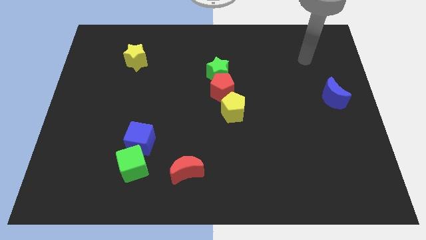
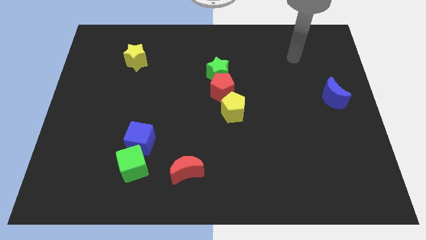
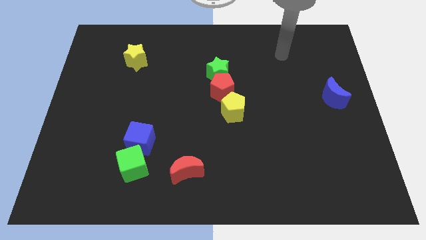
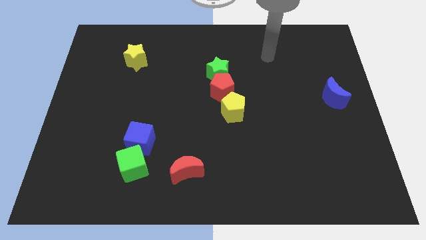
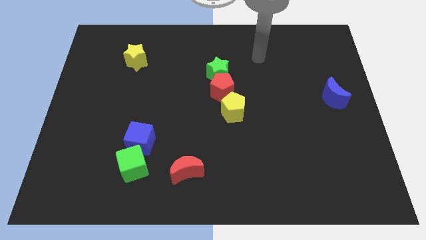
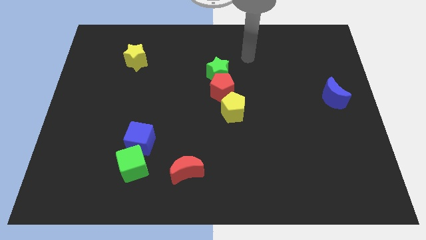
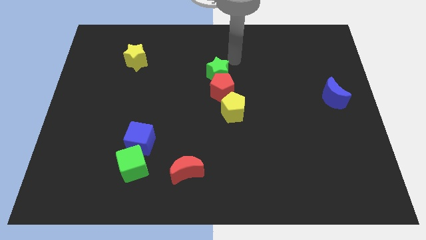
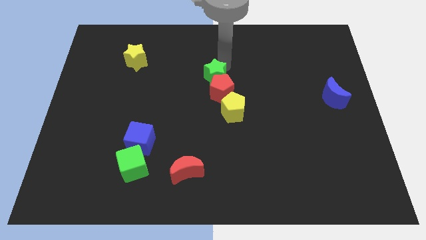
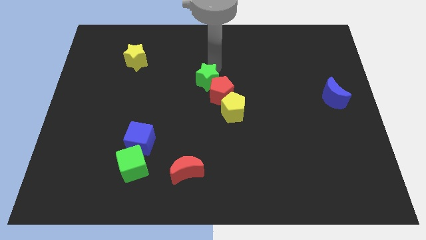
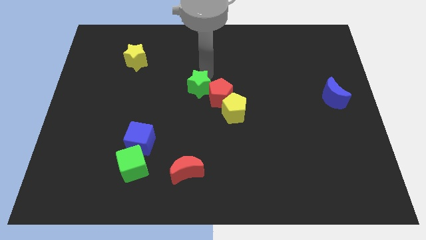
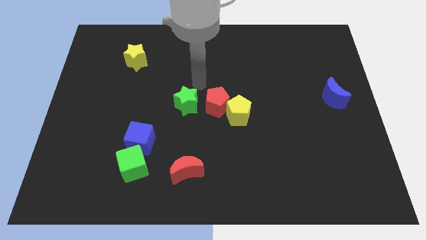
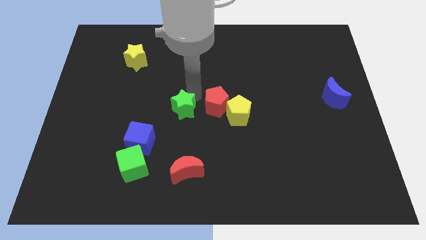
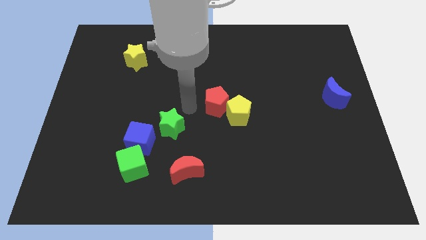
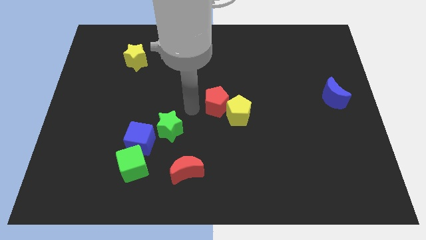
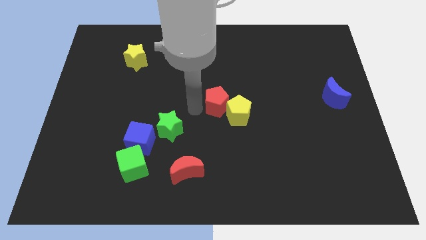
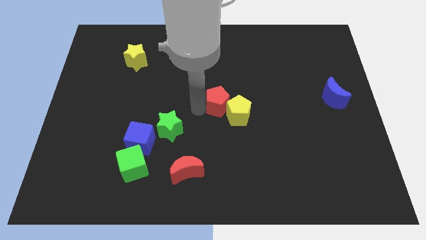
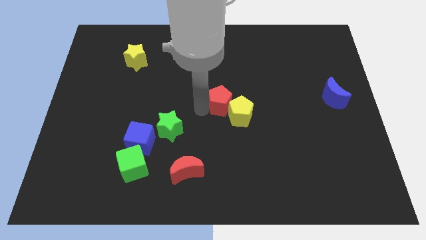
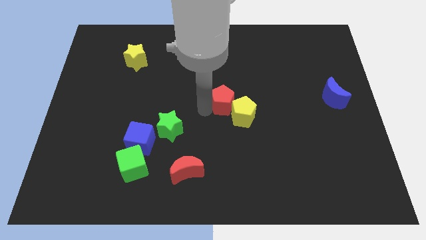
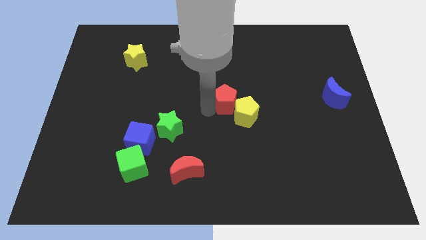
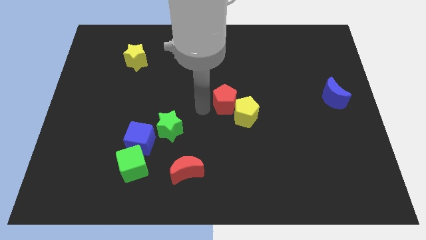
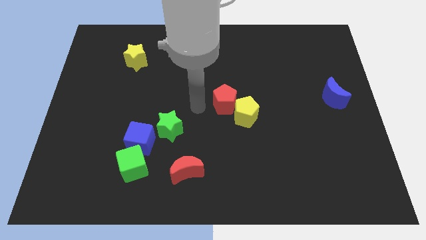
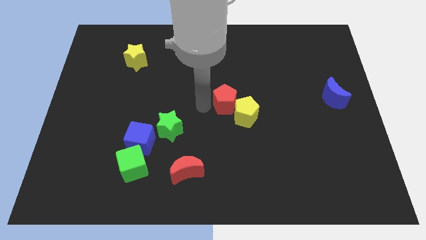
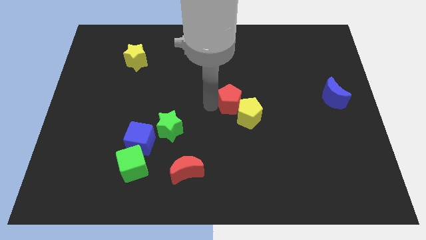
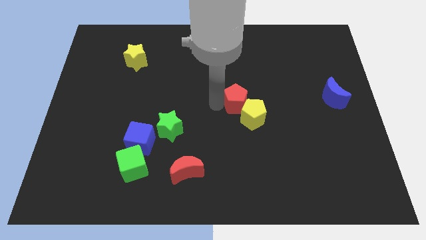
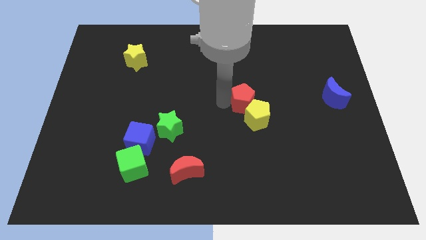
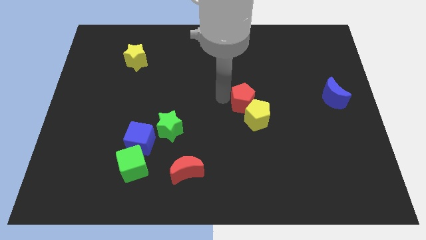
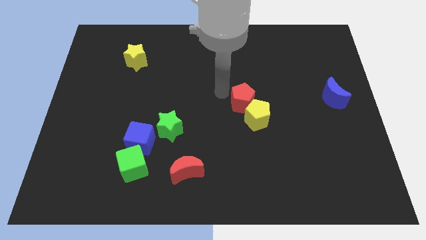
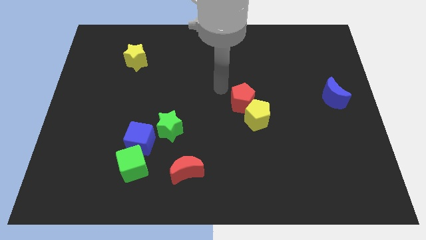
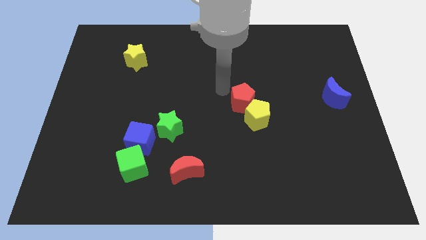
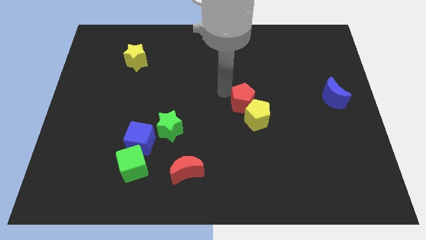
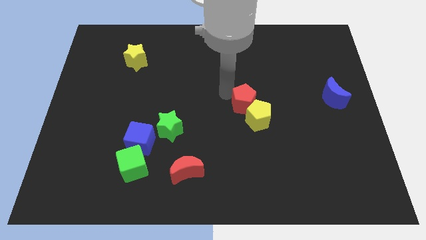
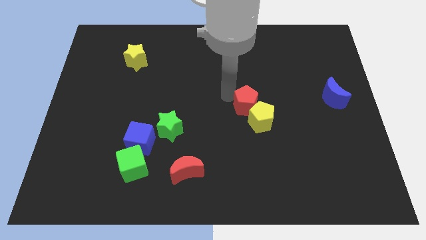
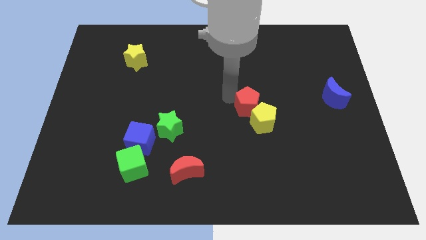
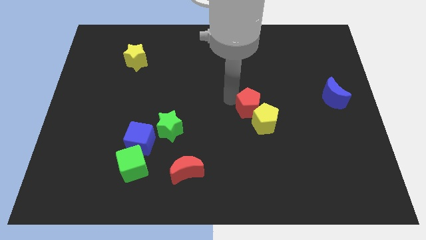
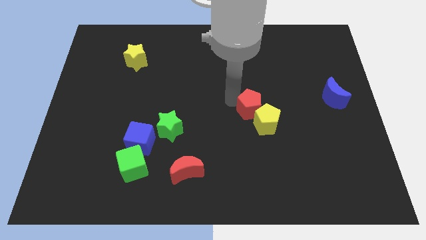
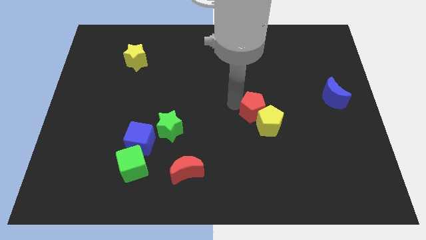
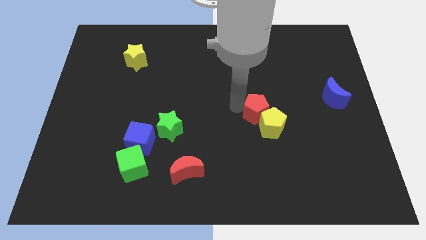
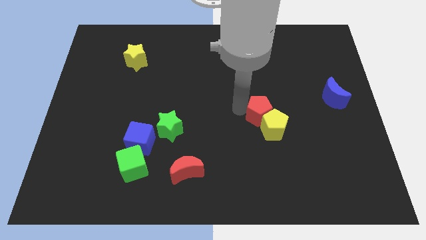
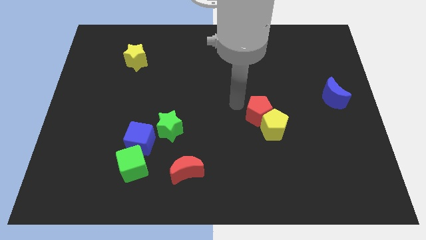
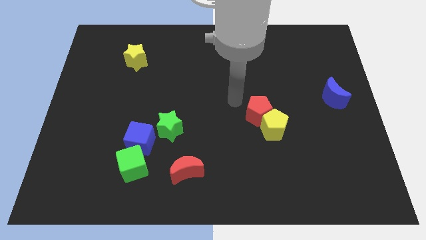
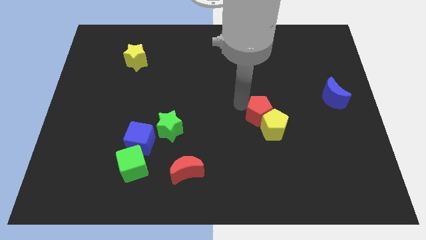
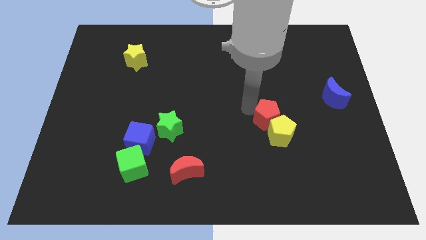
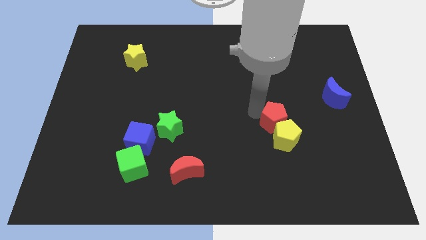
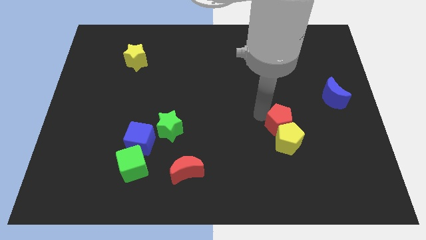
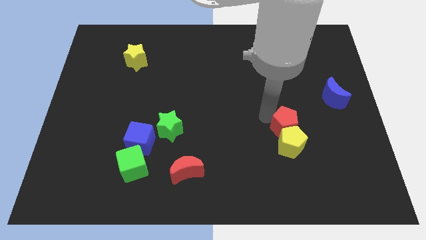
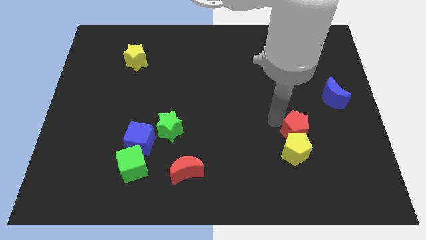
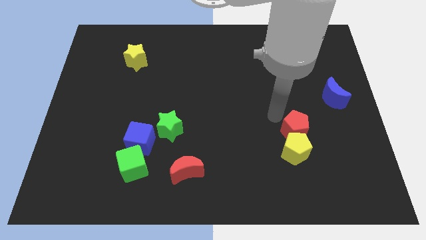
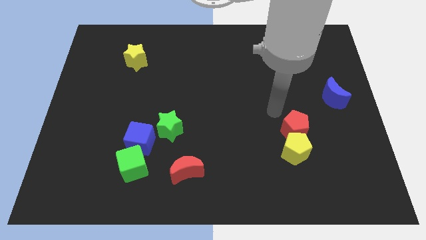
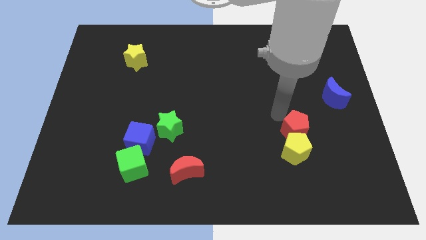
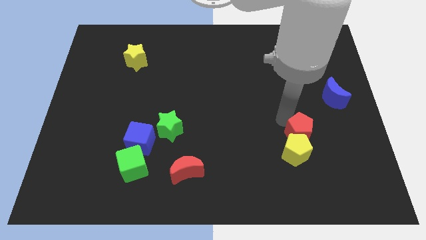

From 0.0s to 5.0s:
push the red pentagon down and to the right

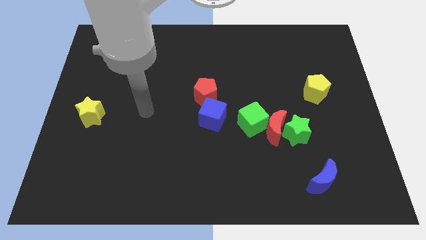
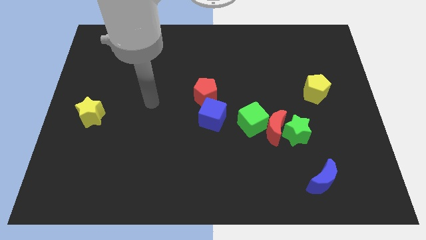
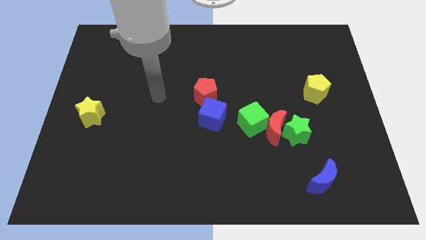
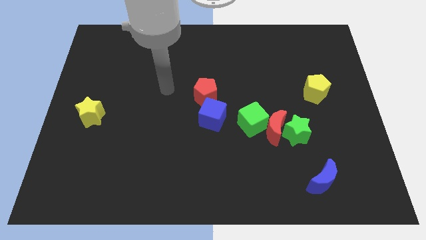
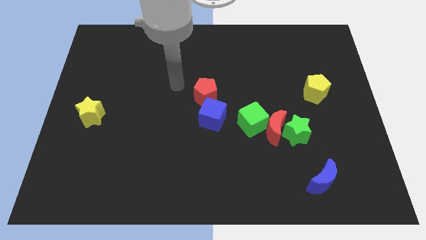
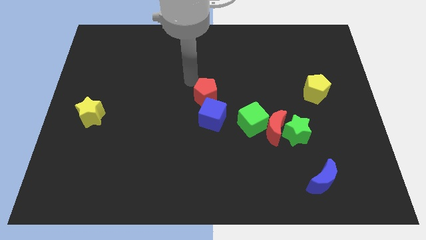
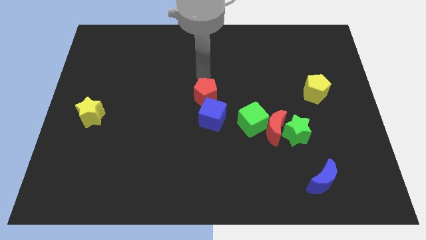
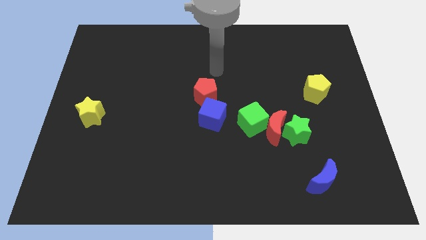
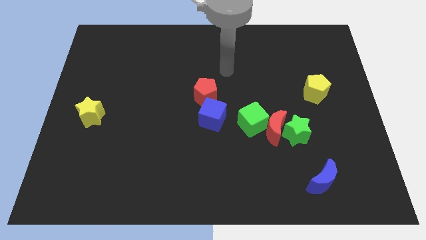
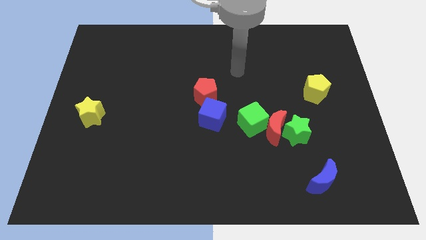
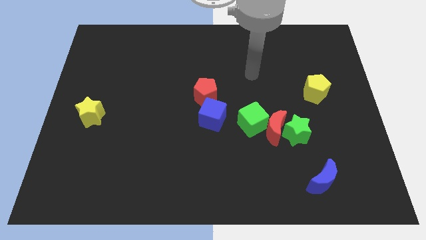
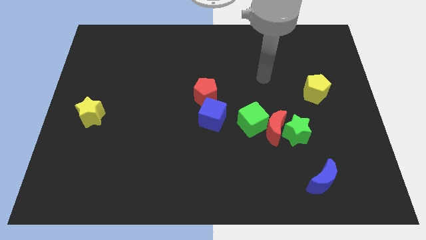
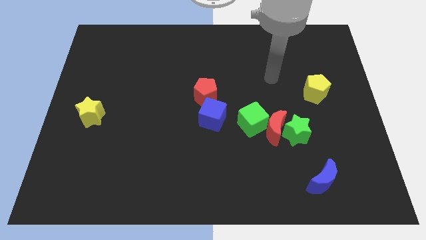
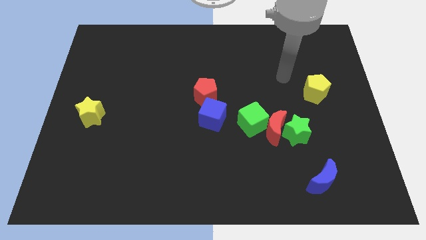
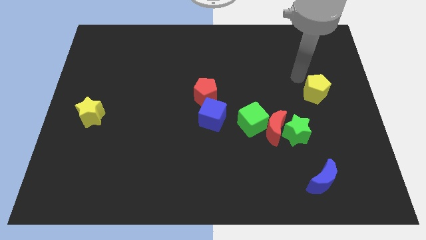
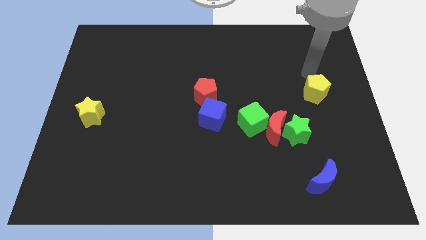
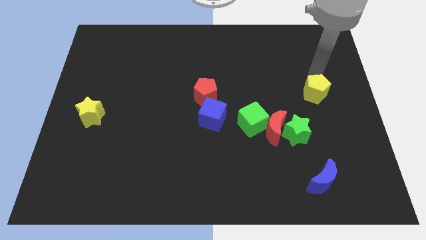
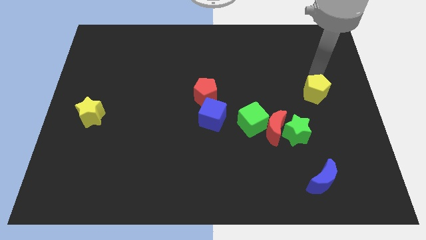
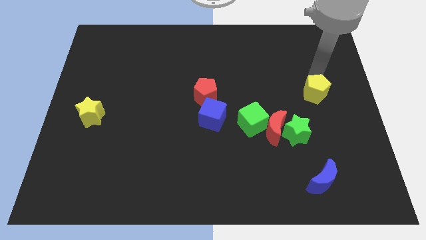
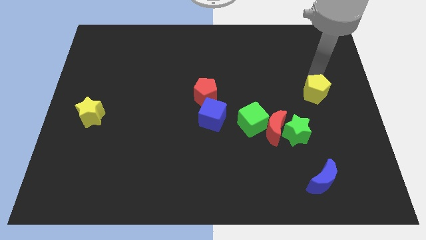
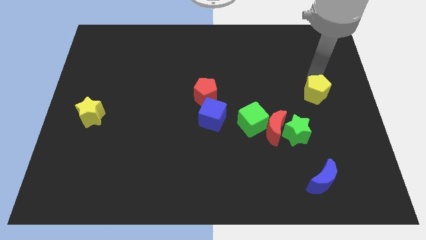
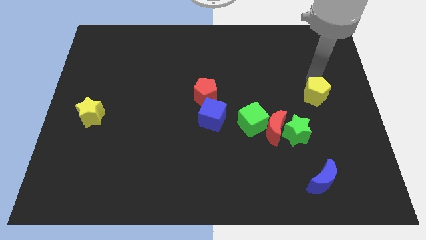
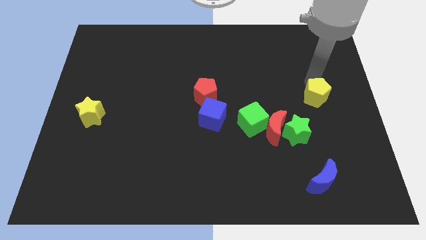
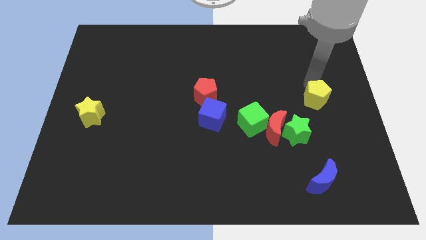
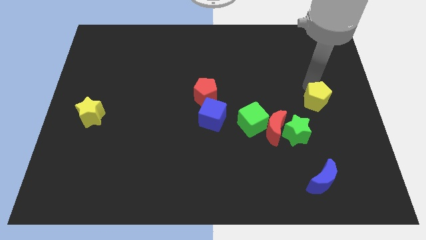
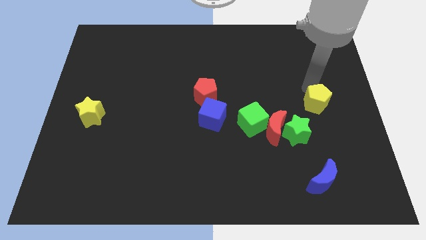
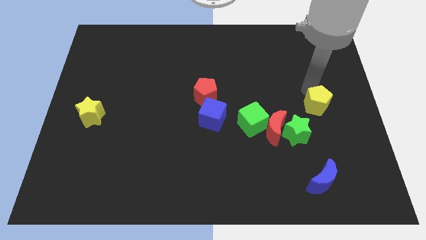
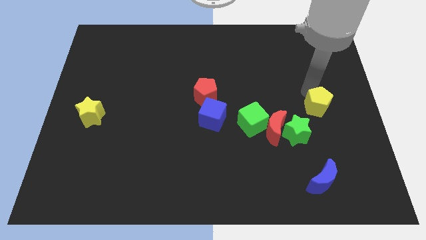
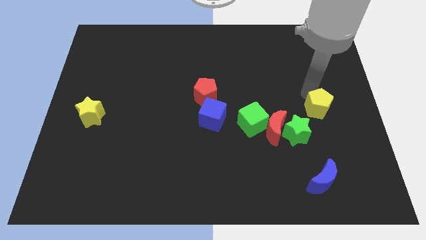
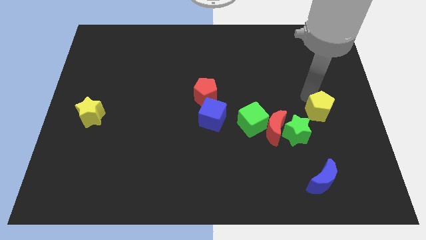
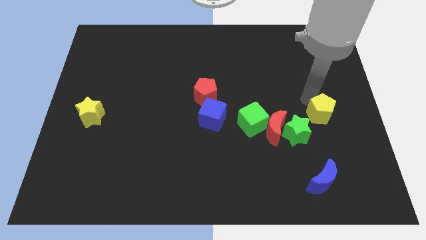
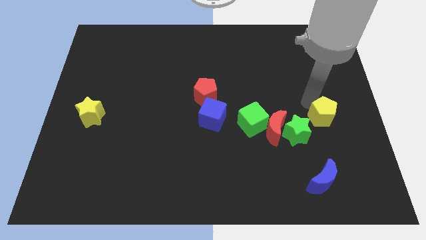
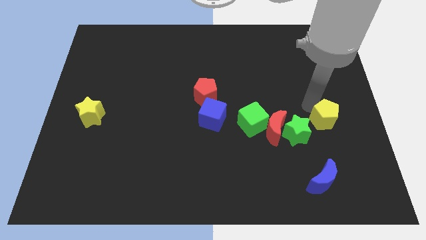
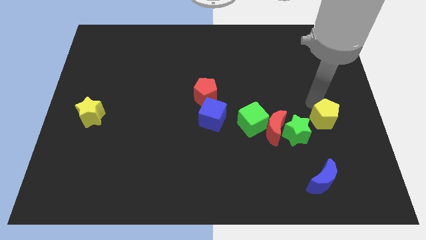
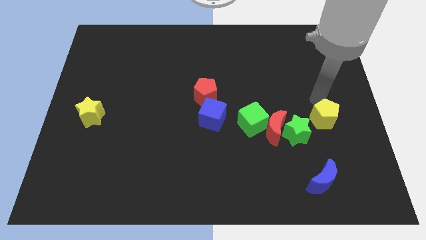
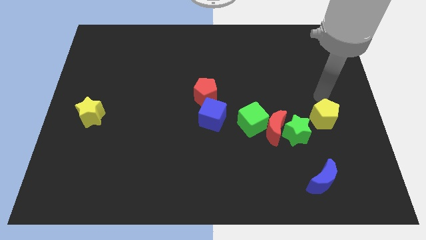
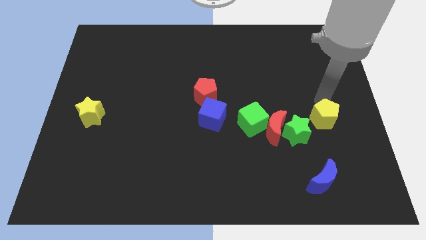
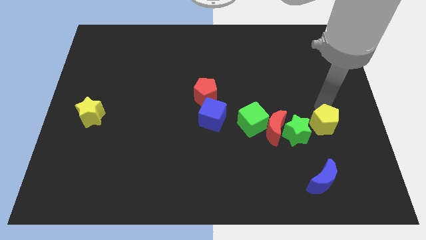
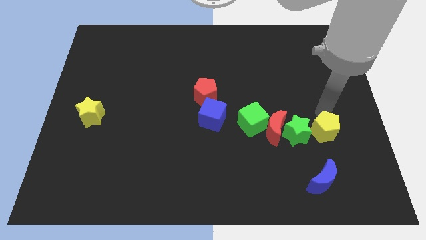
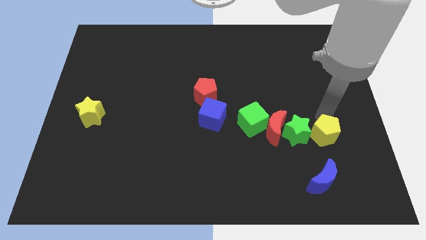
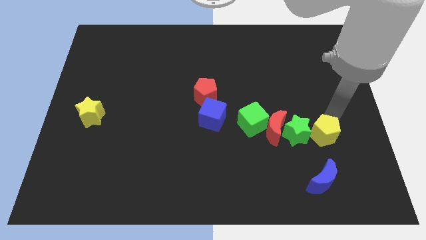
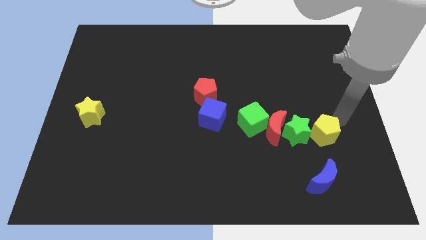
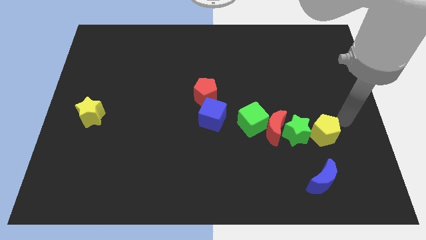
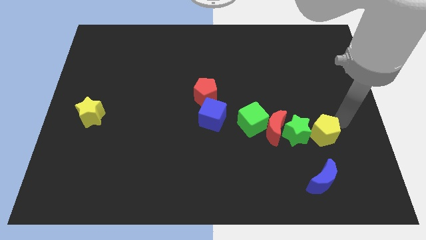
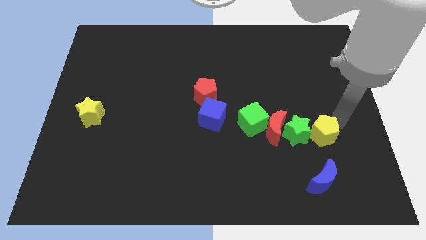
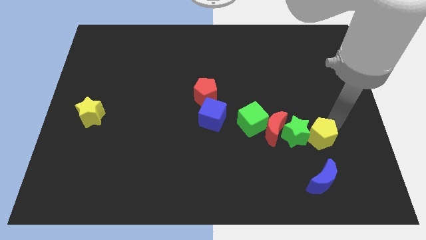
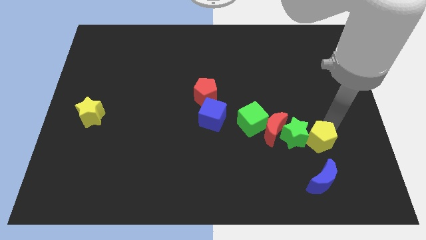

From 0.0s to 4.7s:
move the yellow pentagon somewhat downwards and then to the left
